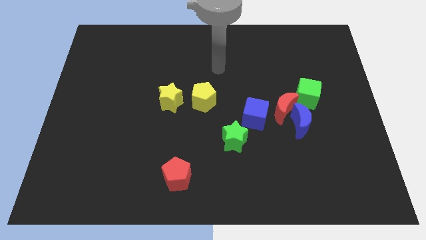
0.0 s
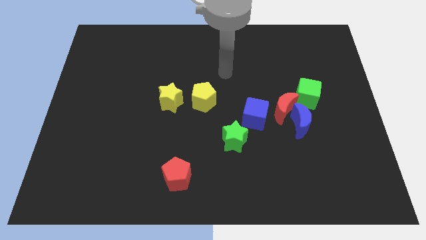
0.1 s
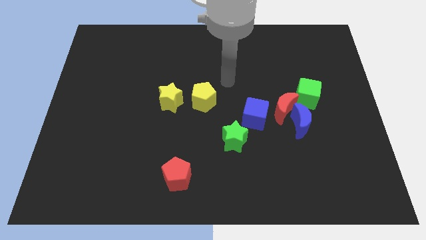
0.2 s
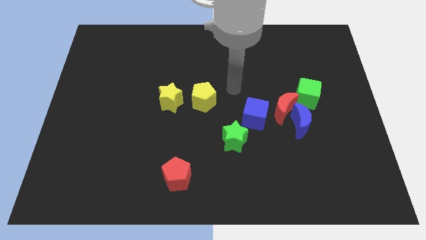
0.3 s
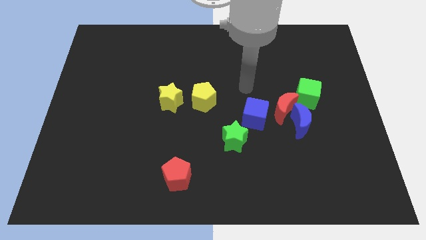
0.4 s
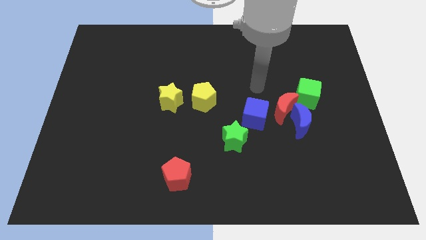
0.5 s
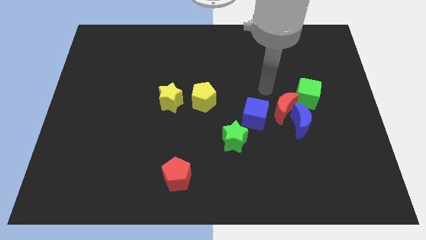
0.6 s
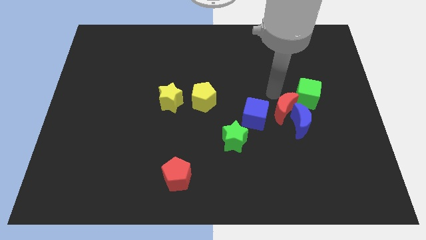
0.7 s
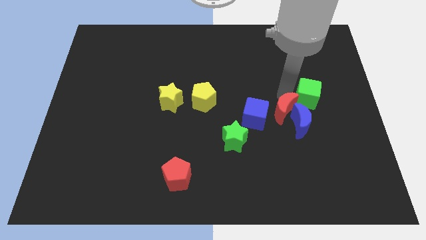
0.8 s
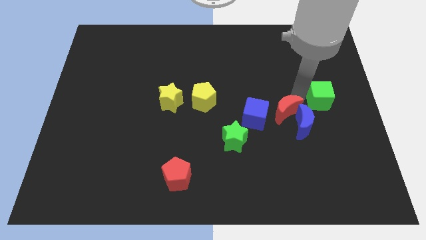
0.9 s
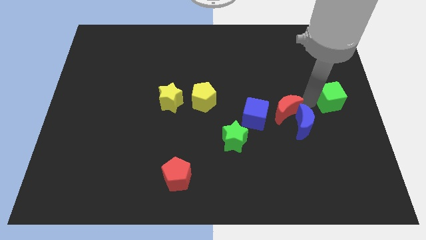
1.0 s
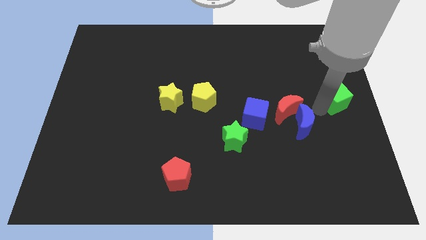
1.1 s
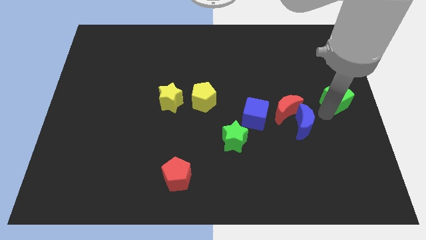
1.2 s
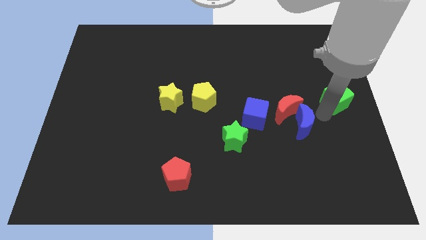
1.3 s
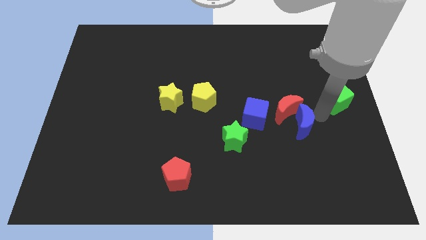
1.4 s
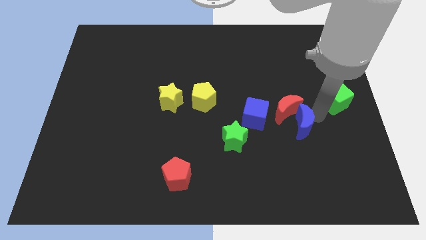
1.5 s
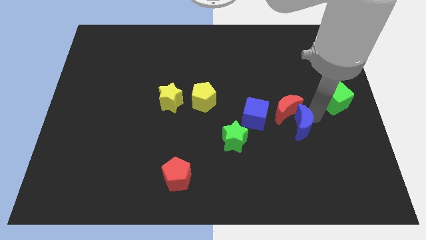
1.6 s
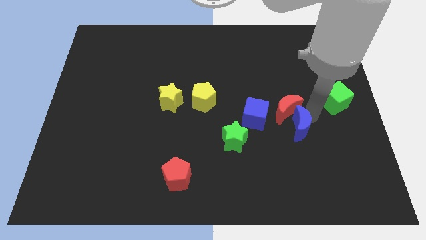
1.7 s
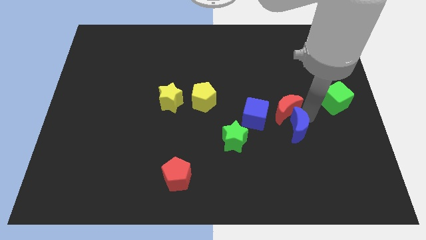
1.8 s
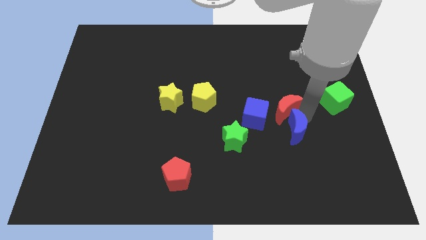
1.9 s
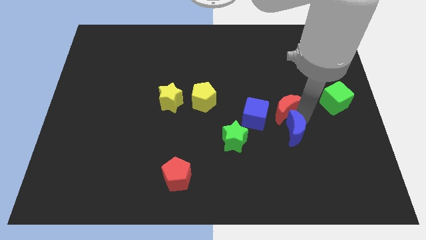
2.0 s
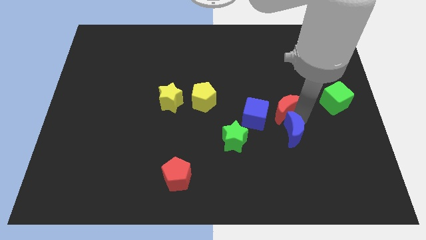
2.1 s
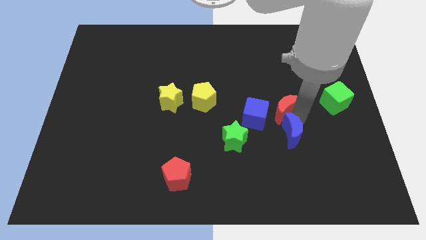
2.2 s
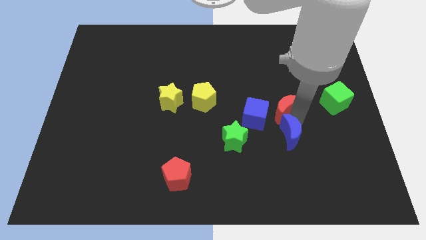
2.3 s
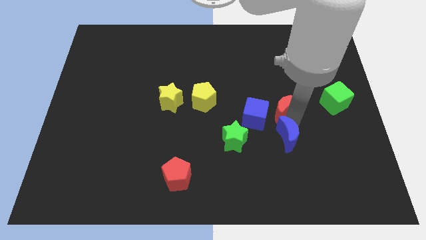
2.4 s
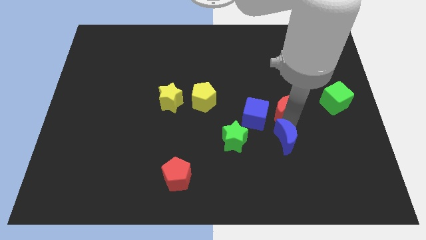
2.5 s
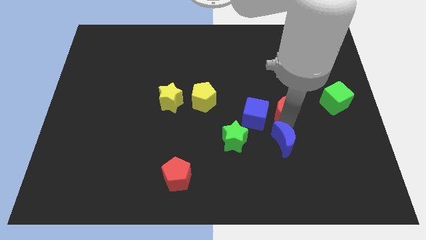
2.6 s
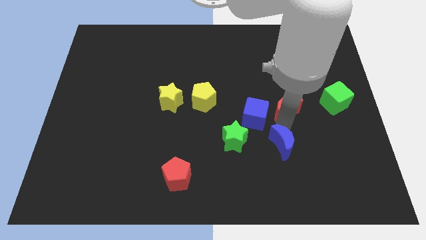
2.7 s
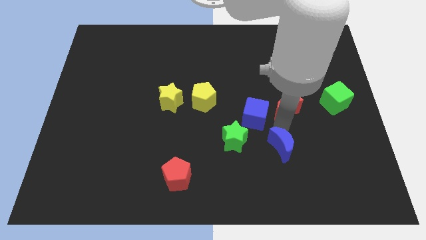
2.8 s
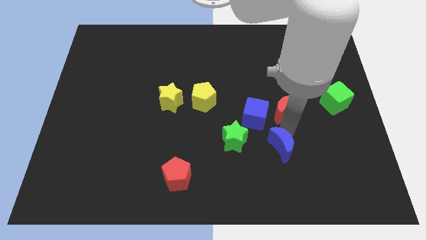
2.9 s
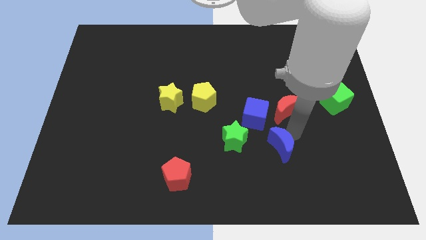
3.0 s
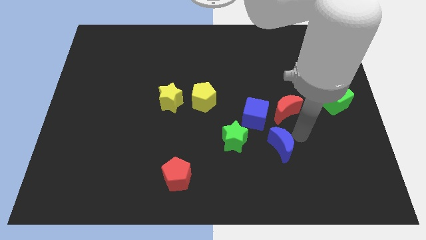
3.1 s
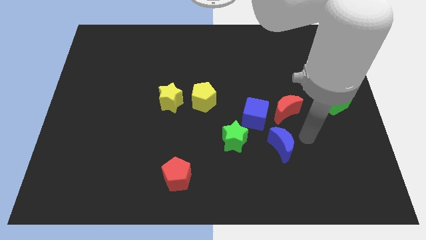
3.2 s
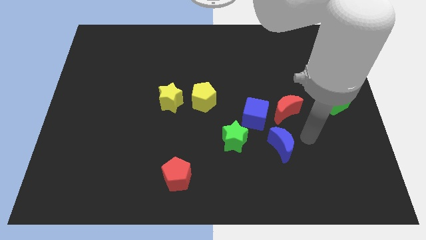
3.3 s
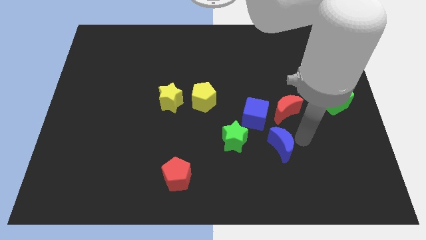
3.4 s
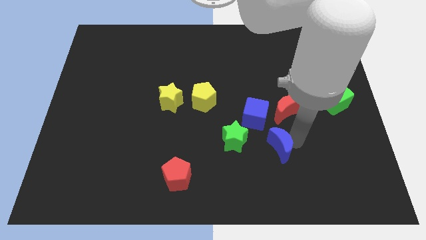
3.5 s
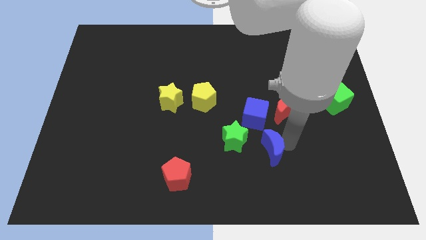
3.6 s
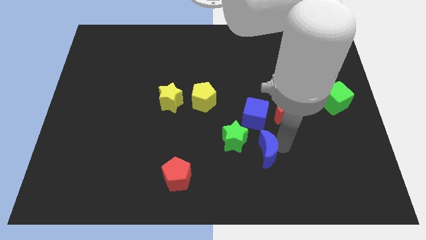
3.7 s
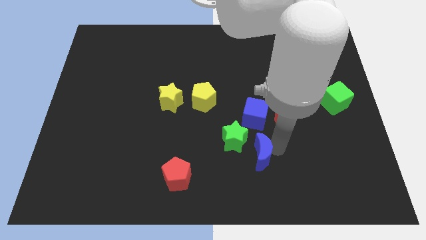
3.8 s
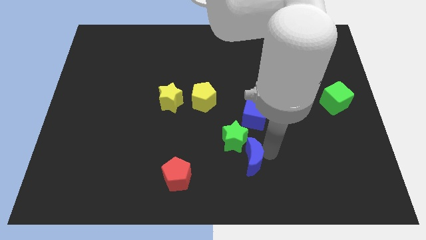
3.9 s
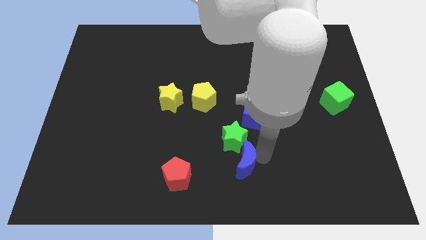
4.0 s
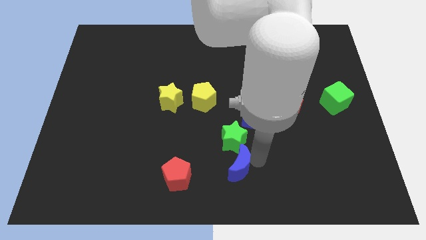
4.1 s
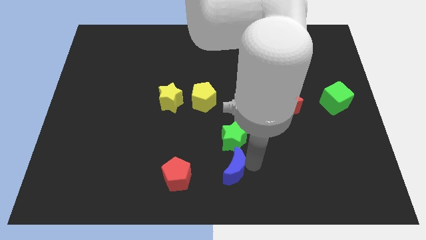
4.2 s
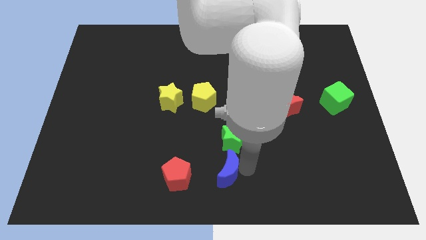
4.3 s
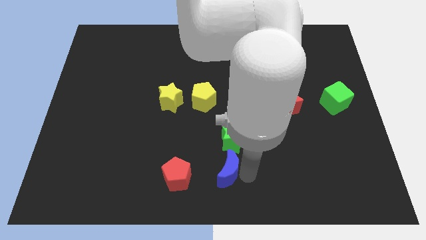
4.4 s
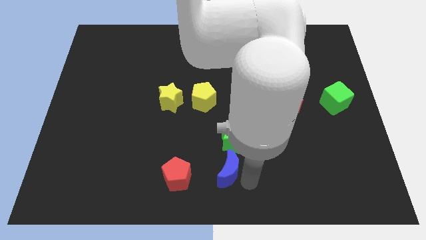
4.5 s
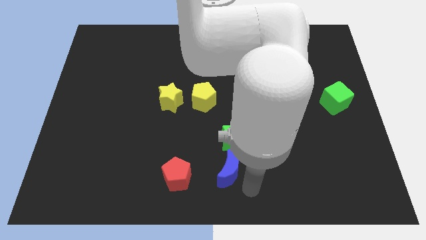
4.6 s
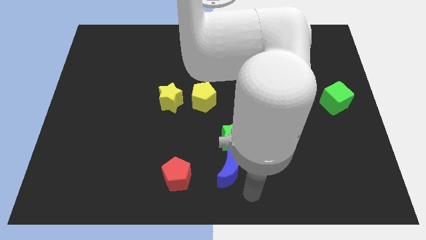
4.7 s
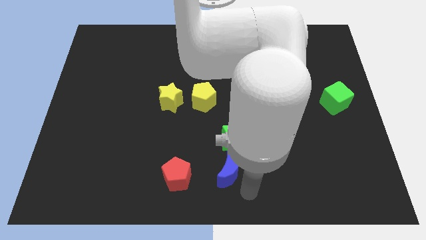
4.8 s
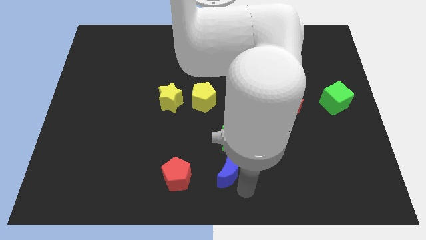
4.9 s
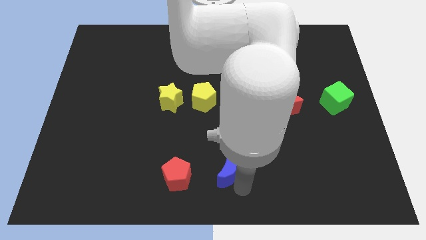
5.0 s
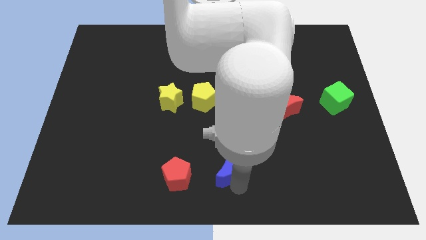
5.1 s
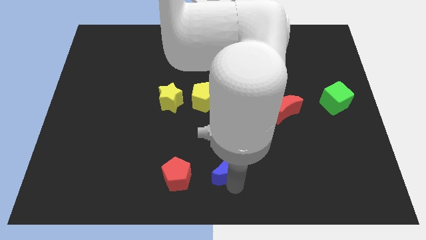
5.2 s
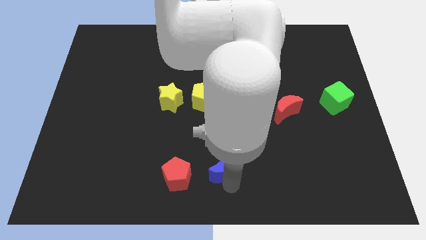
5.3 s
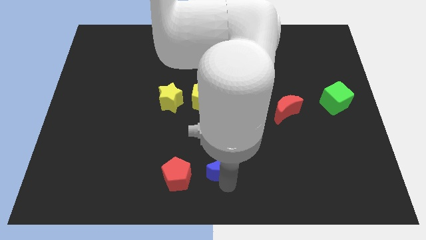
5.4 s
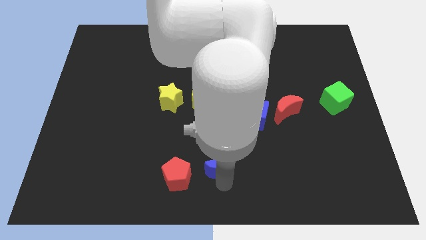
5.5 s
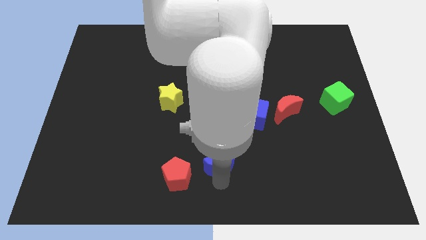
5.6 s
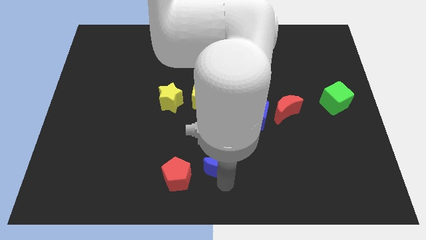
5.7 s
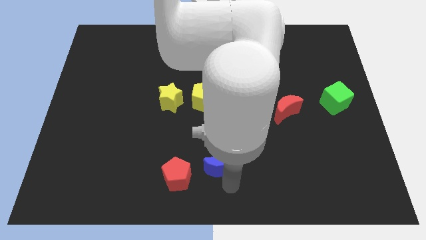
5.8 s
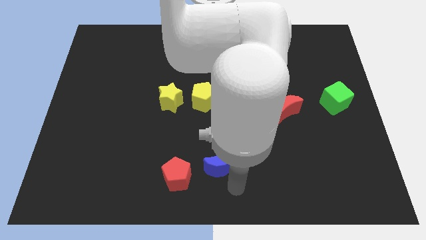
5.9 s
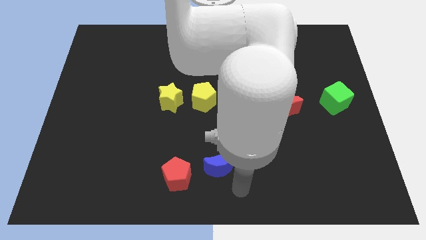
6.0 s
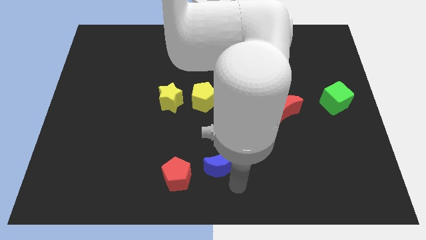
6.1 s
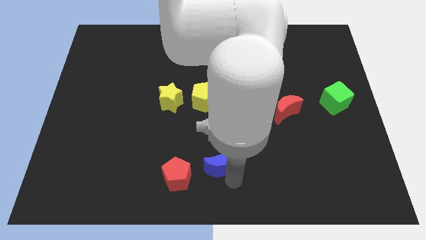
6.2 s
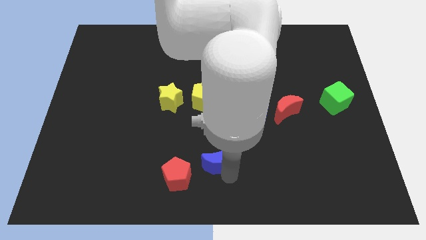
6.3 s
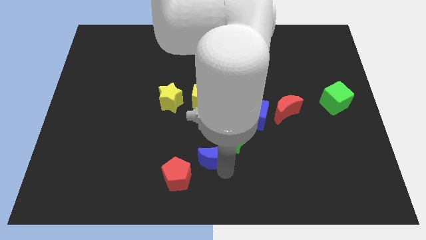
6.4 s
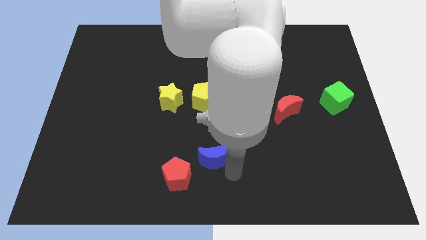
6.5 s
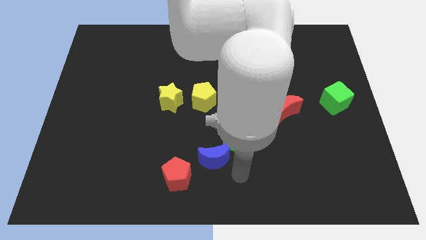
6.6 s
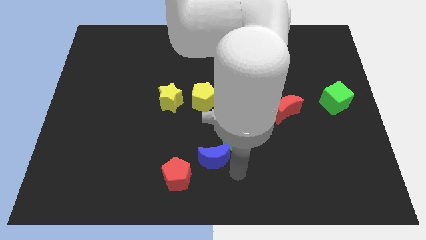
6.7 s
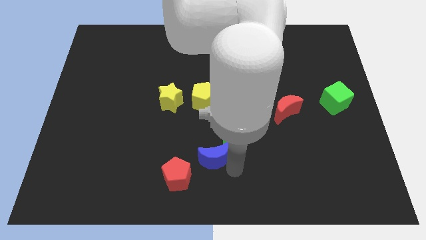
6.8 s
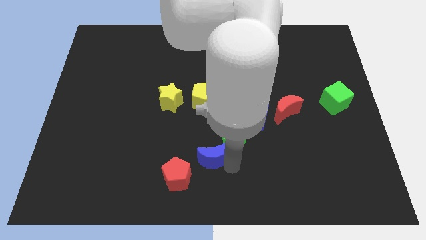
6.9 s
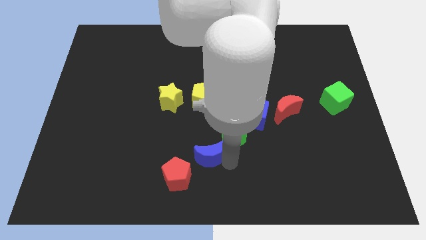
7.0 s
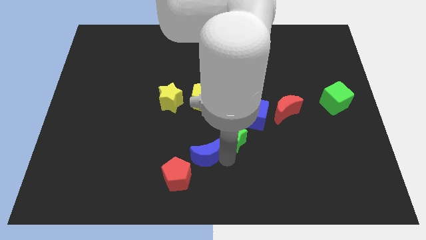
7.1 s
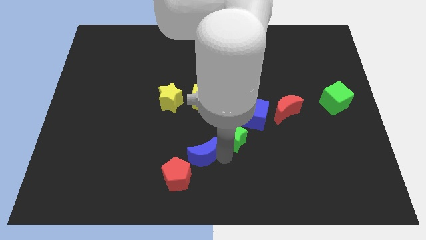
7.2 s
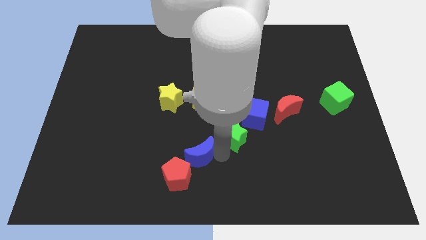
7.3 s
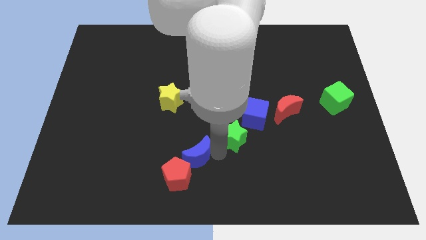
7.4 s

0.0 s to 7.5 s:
slide the blue moon left

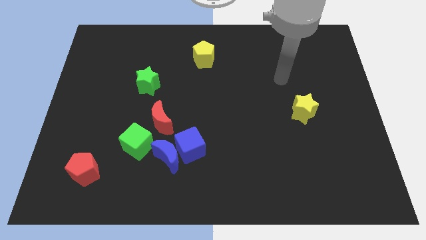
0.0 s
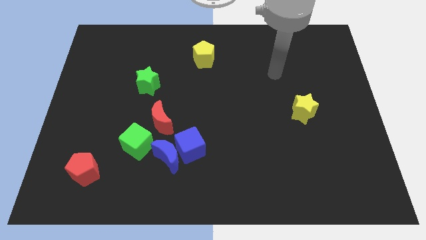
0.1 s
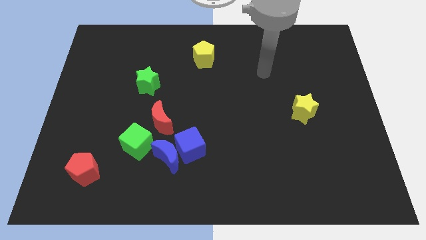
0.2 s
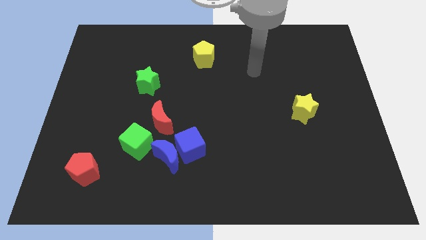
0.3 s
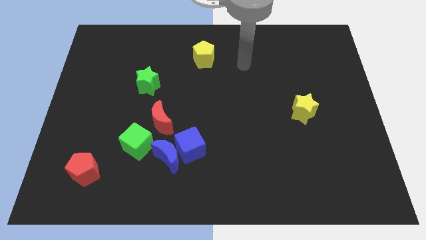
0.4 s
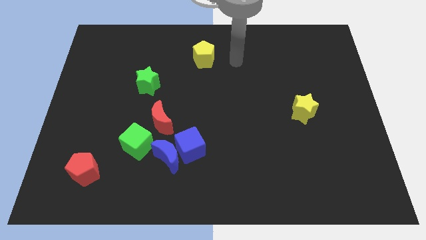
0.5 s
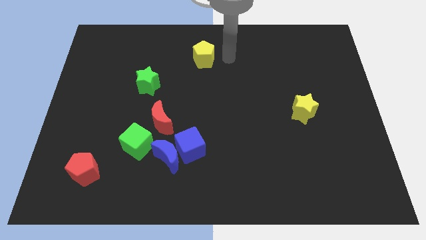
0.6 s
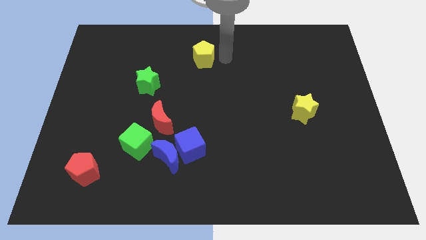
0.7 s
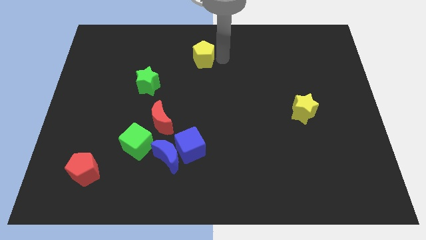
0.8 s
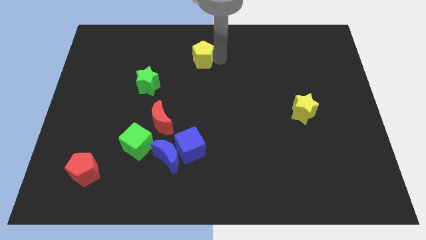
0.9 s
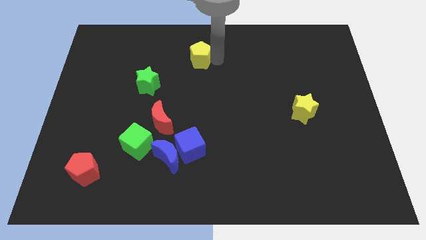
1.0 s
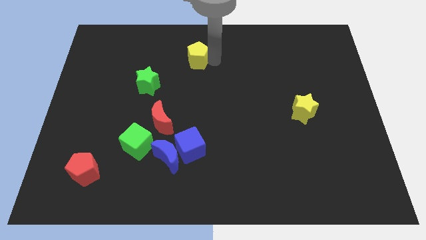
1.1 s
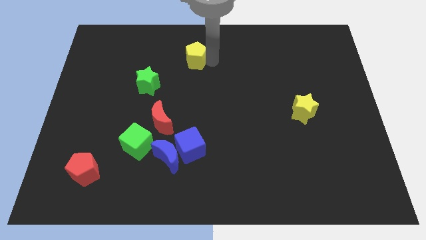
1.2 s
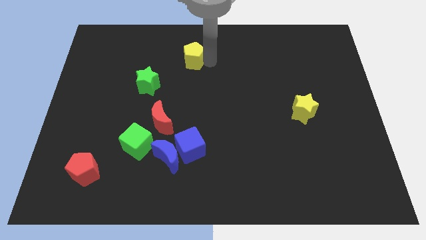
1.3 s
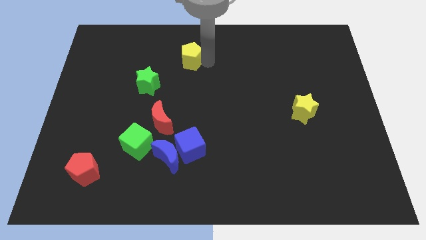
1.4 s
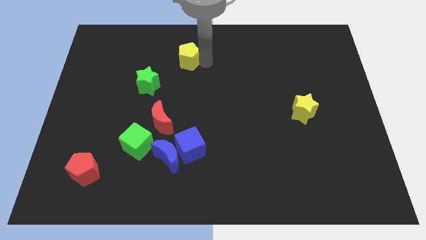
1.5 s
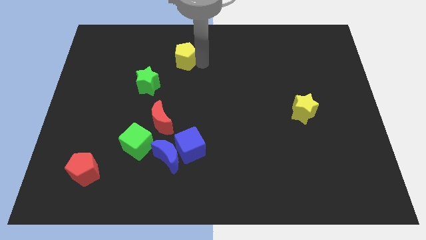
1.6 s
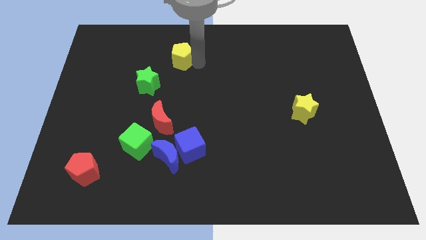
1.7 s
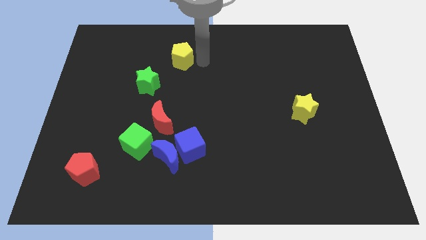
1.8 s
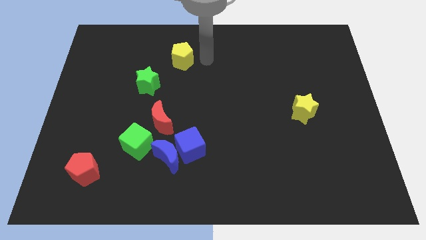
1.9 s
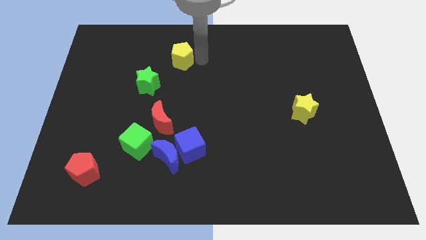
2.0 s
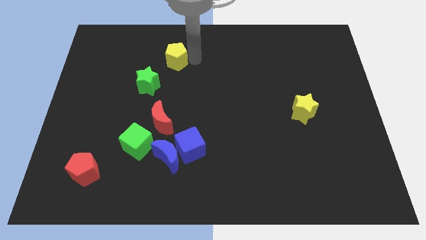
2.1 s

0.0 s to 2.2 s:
move the yellow pentagon slightly left
